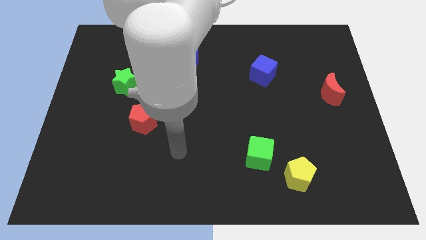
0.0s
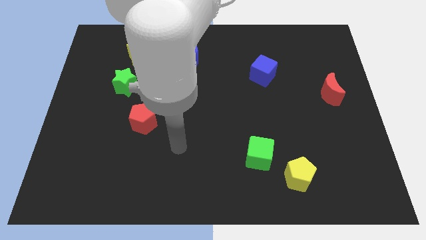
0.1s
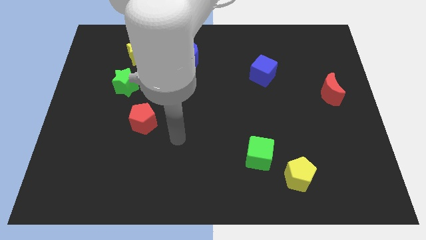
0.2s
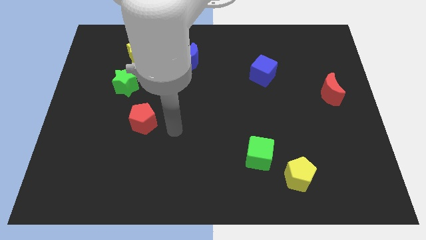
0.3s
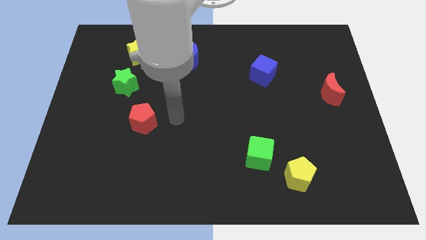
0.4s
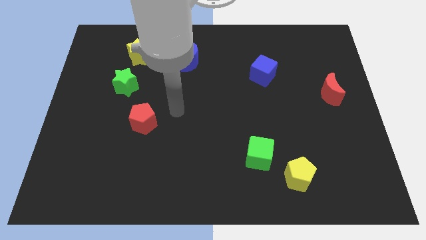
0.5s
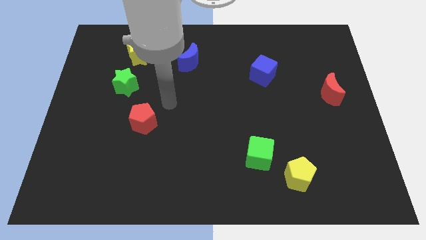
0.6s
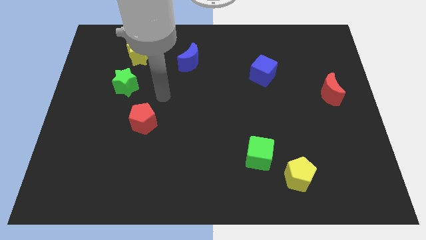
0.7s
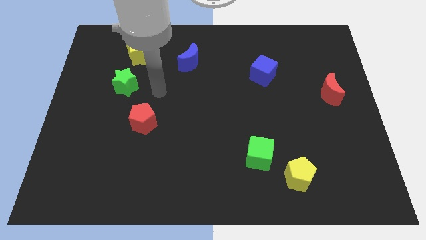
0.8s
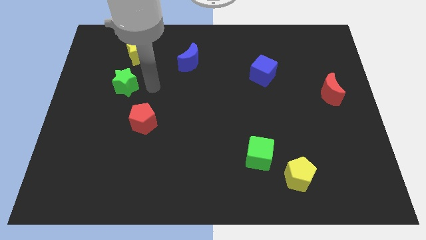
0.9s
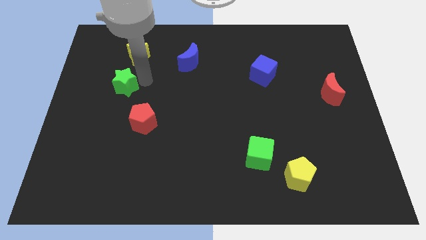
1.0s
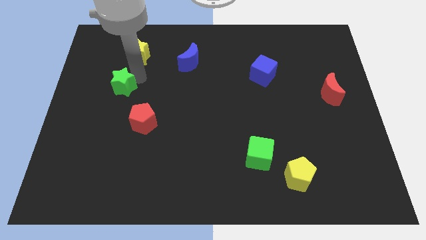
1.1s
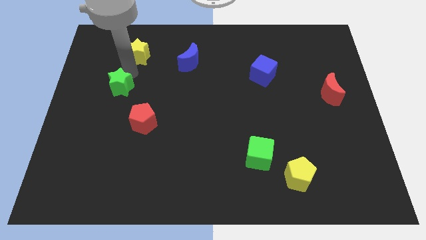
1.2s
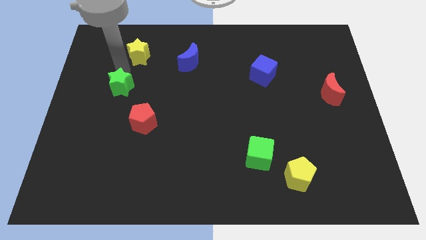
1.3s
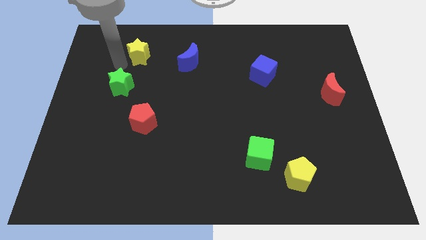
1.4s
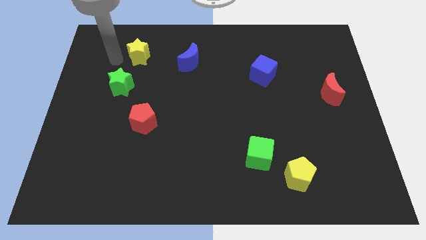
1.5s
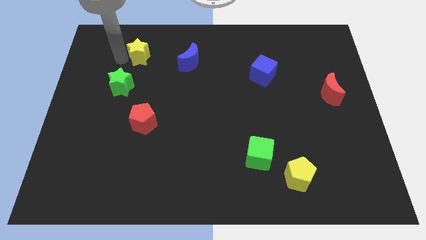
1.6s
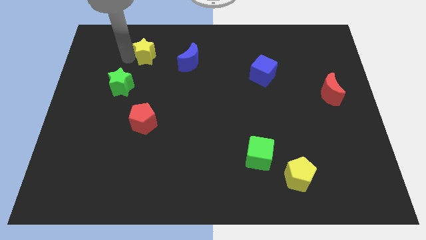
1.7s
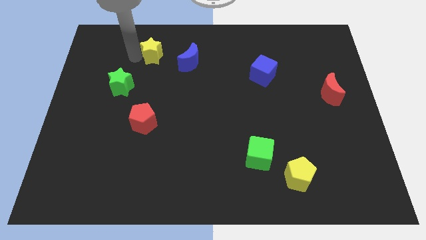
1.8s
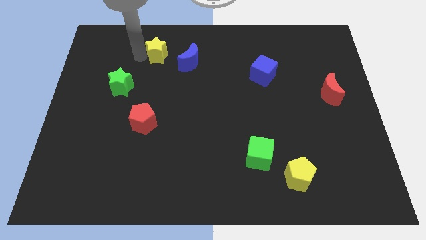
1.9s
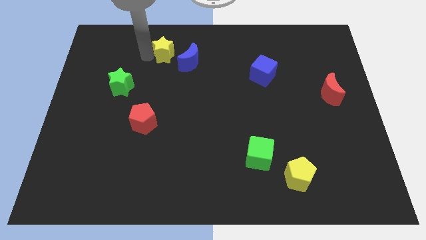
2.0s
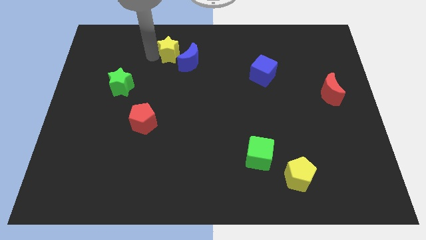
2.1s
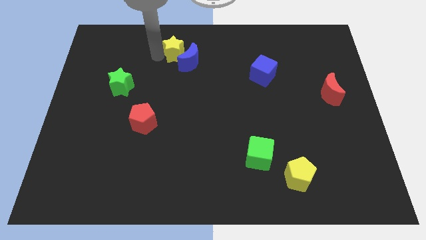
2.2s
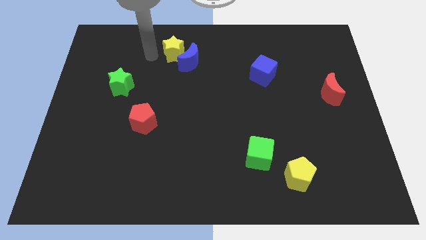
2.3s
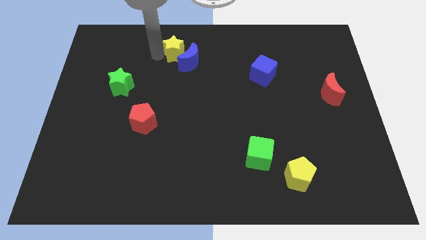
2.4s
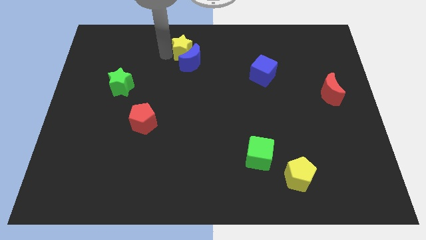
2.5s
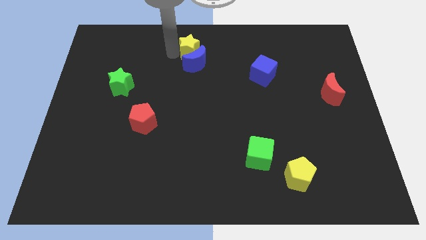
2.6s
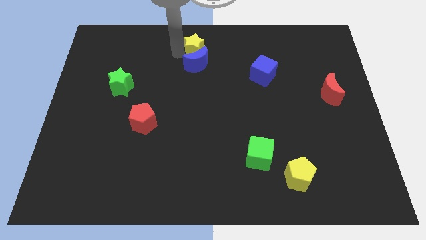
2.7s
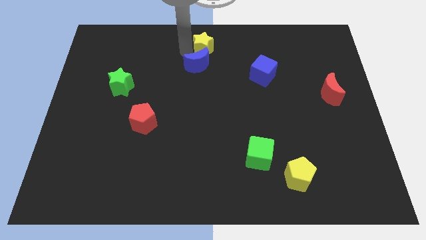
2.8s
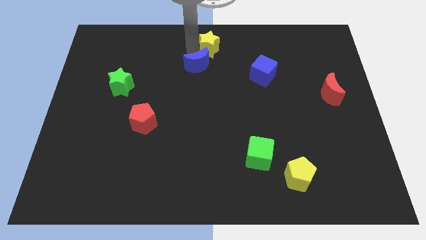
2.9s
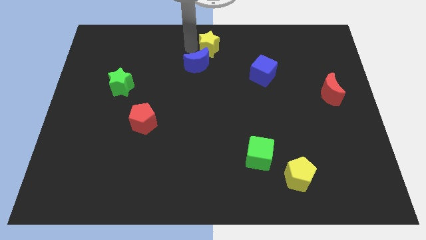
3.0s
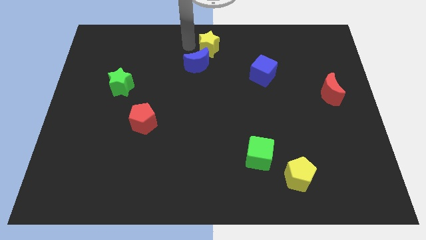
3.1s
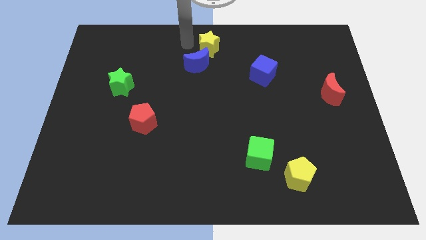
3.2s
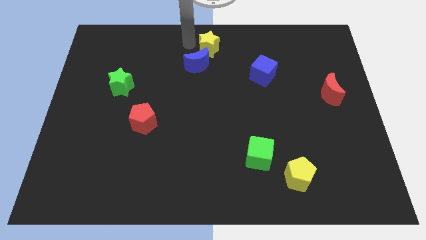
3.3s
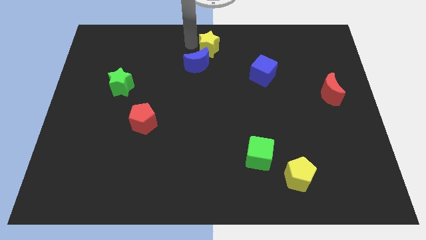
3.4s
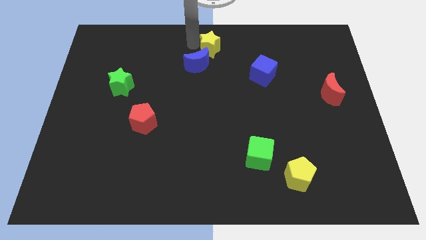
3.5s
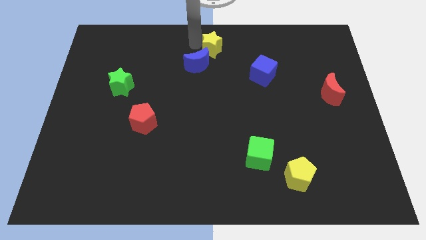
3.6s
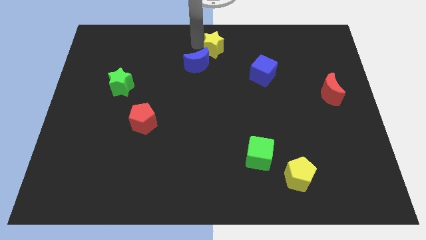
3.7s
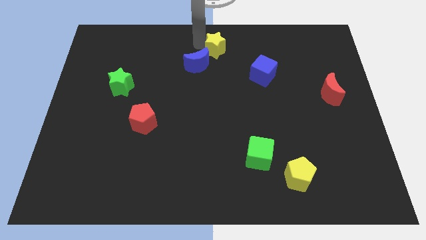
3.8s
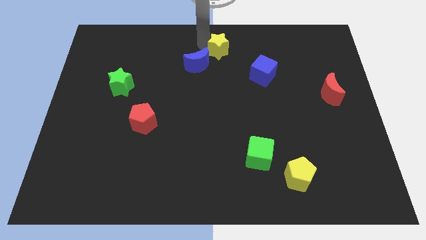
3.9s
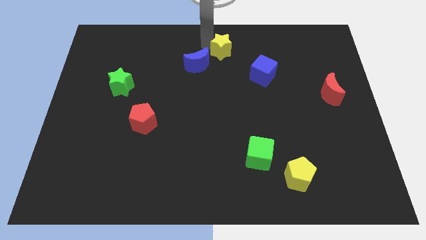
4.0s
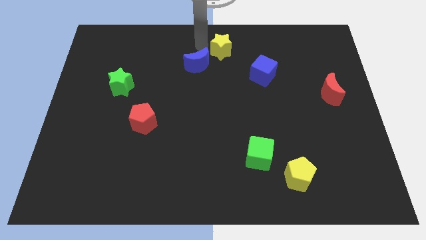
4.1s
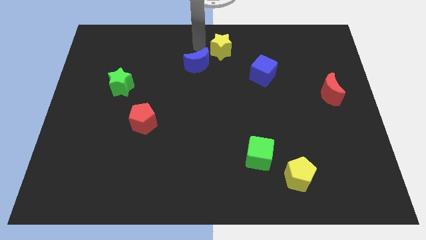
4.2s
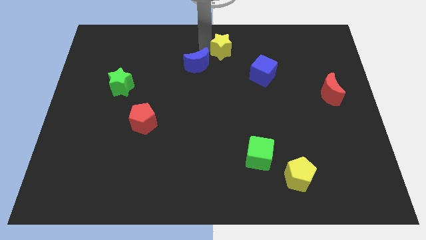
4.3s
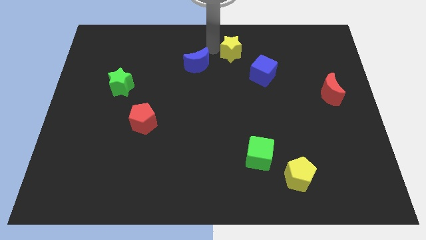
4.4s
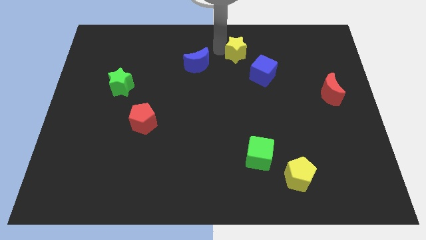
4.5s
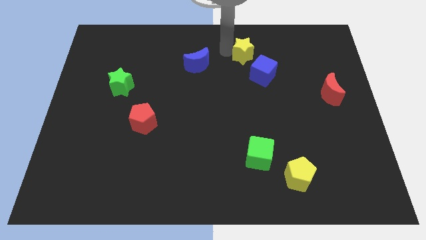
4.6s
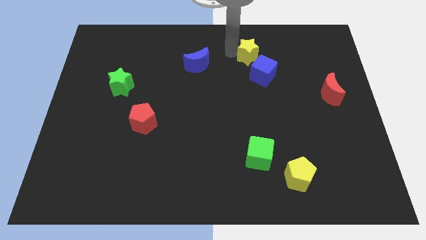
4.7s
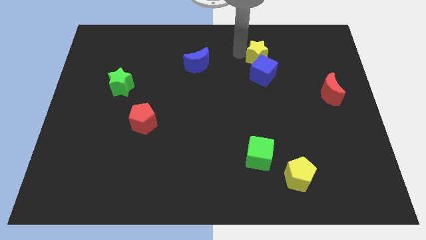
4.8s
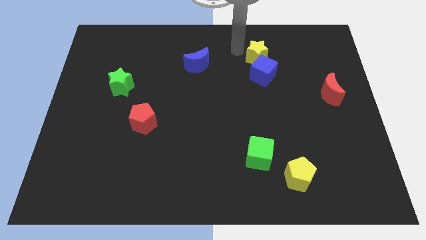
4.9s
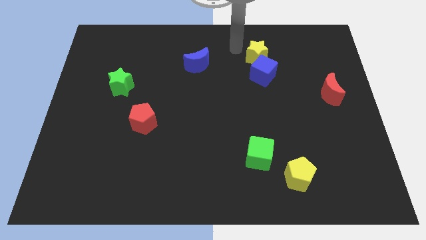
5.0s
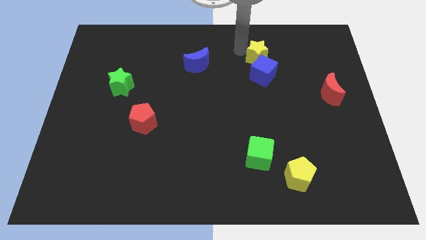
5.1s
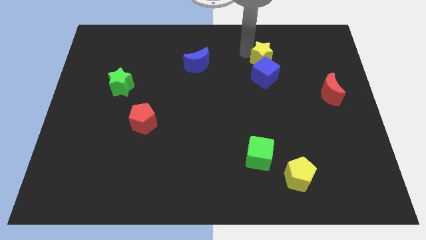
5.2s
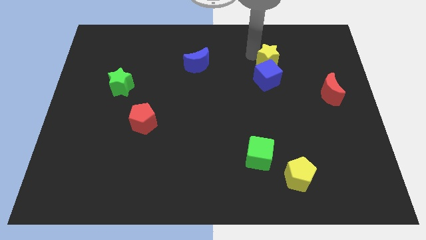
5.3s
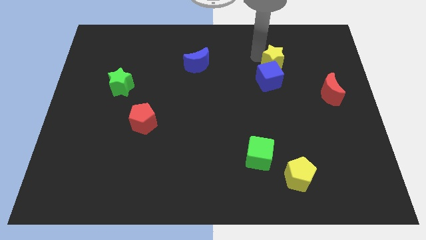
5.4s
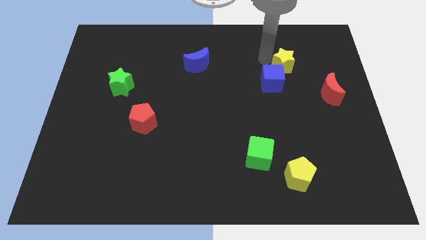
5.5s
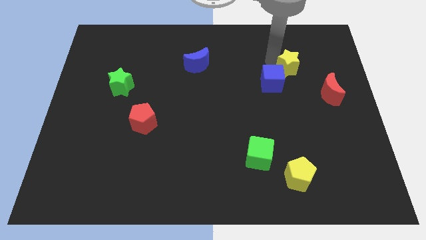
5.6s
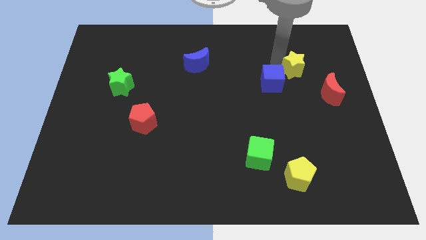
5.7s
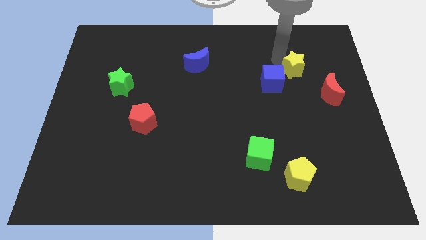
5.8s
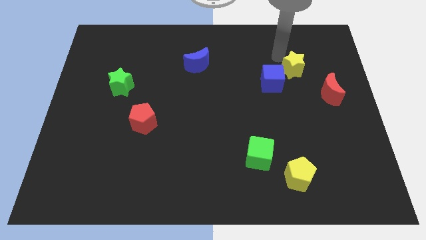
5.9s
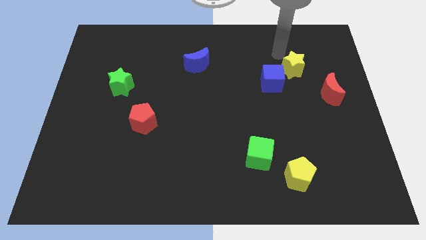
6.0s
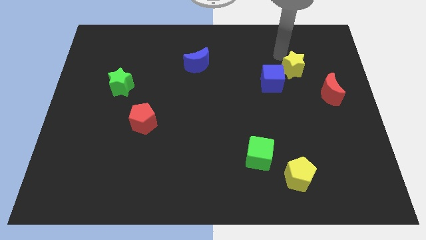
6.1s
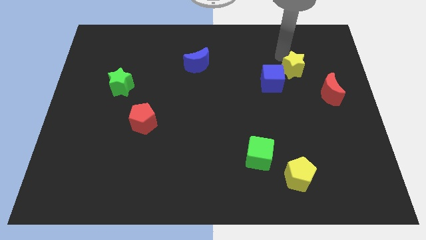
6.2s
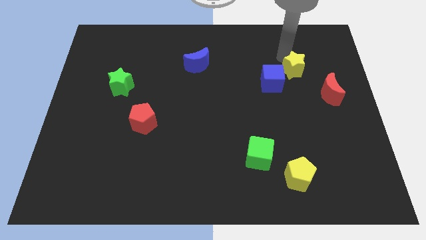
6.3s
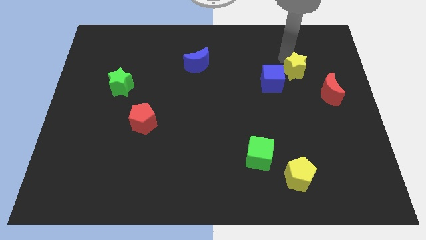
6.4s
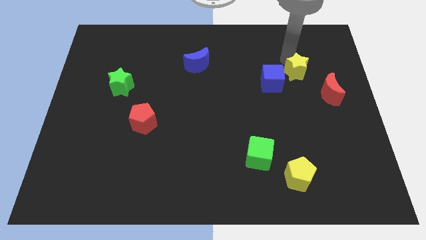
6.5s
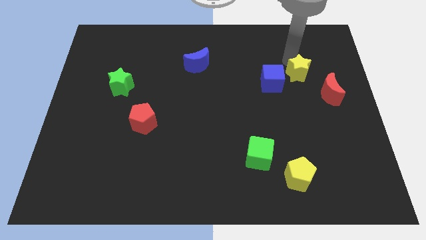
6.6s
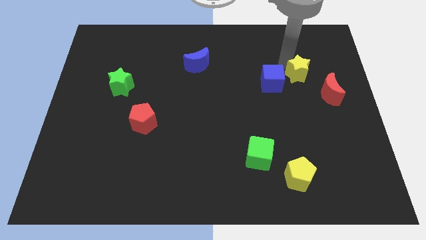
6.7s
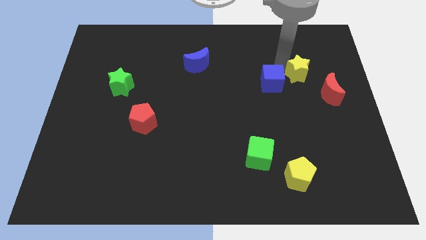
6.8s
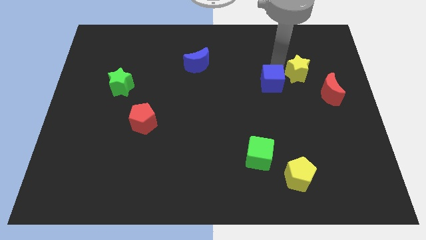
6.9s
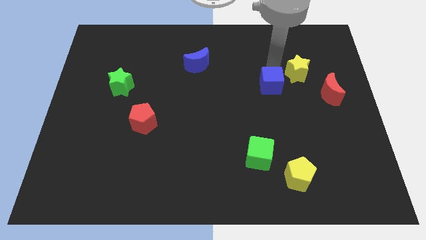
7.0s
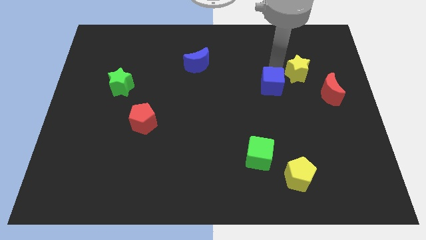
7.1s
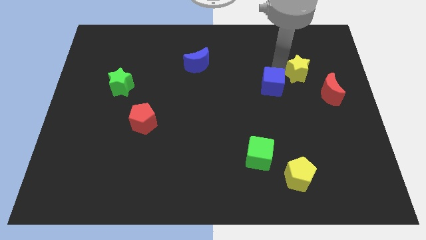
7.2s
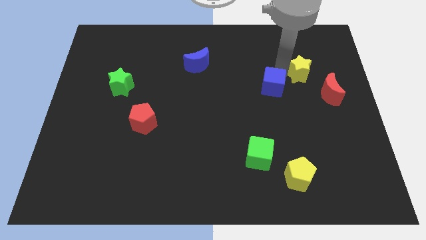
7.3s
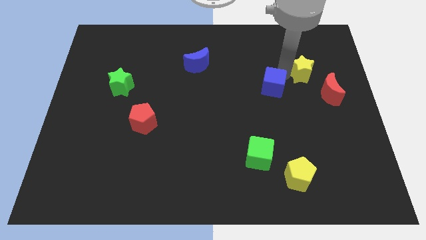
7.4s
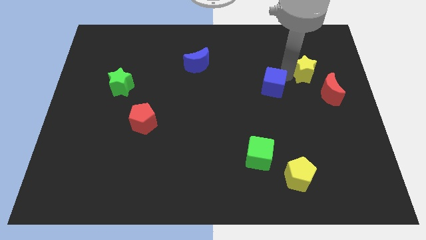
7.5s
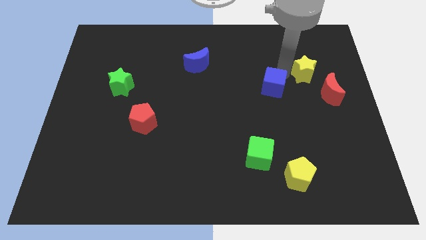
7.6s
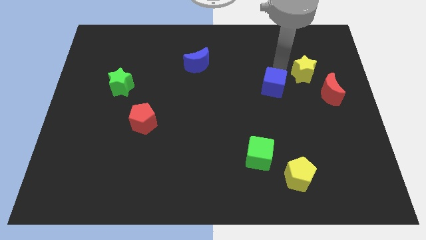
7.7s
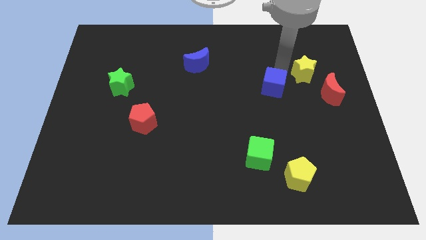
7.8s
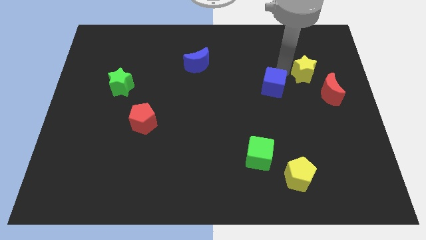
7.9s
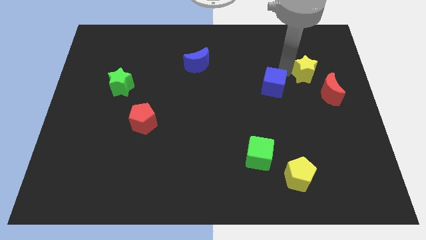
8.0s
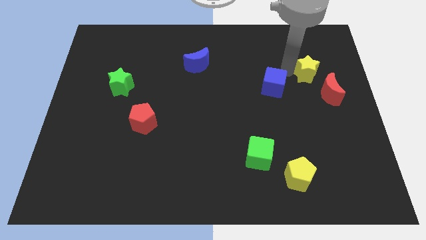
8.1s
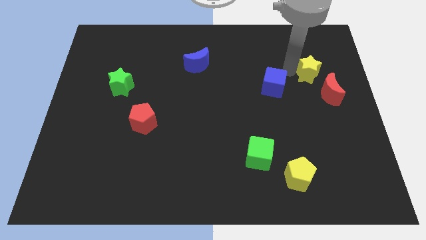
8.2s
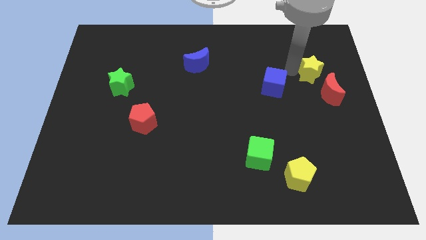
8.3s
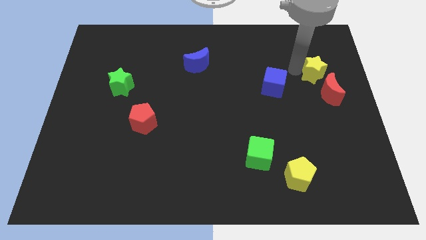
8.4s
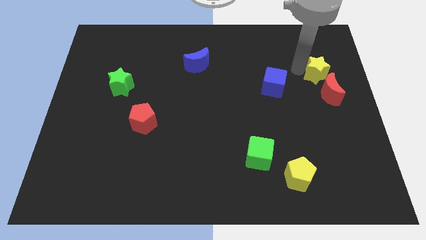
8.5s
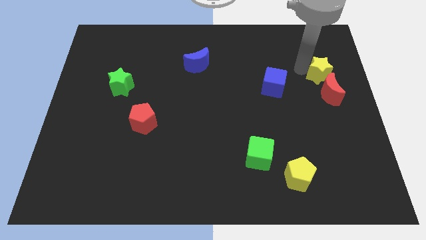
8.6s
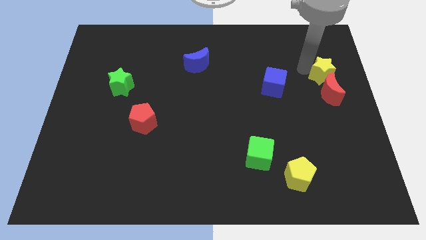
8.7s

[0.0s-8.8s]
slide the yellow star to the center right
